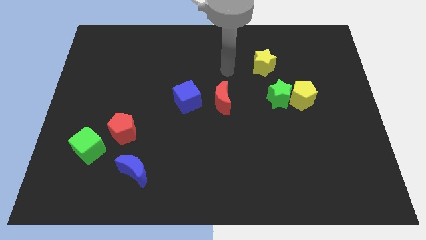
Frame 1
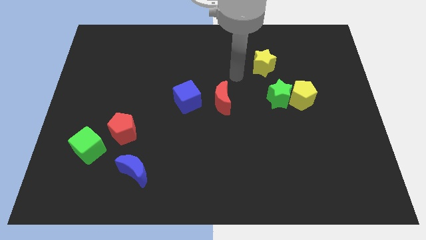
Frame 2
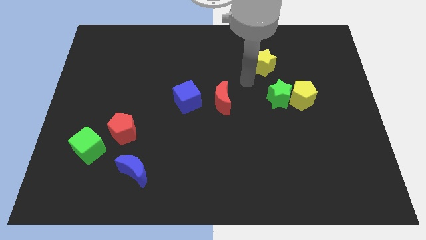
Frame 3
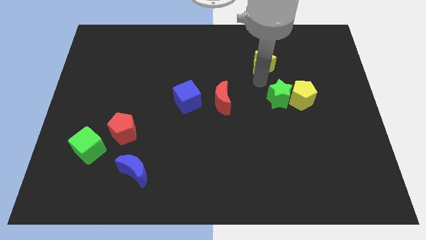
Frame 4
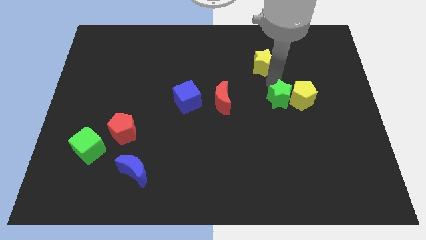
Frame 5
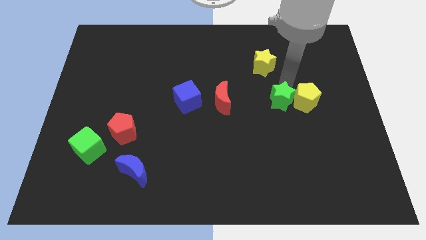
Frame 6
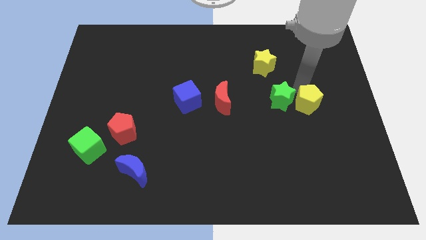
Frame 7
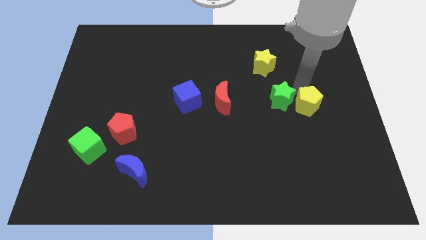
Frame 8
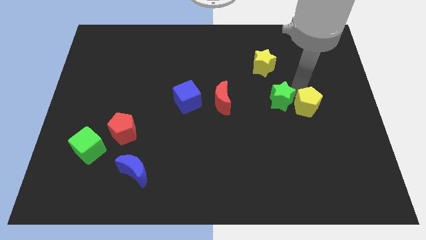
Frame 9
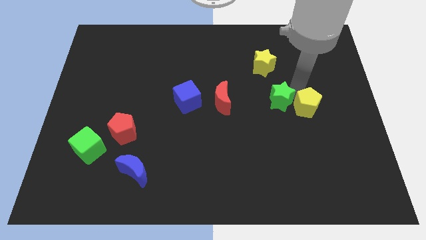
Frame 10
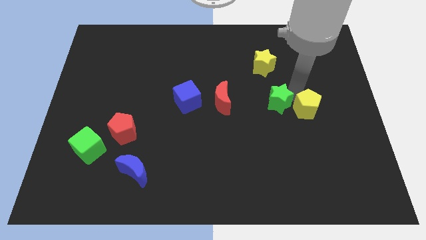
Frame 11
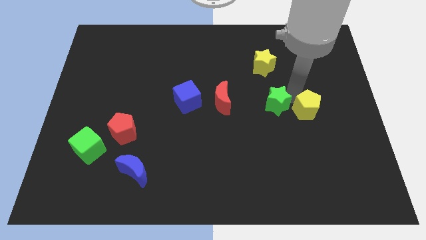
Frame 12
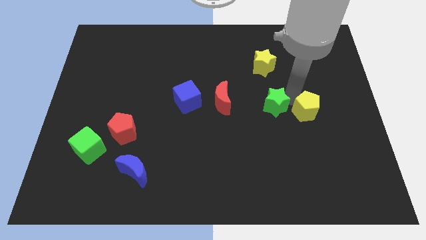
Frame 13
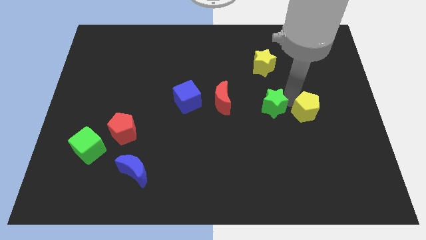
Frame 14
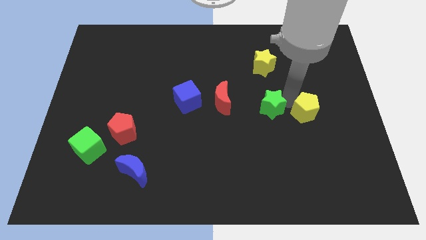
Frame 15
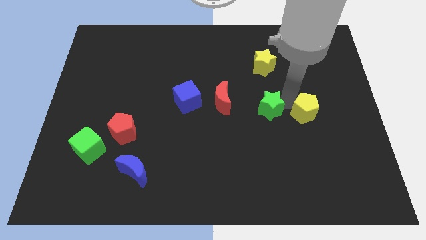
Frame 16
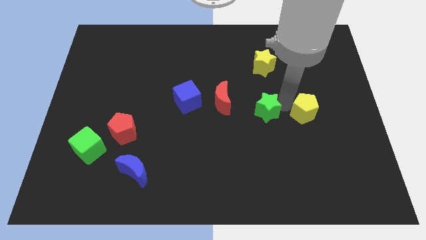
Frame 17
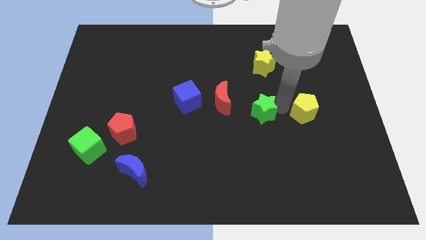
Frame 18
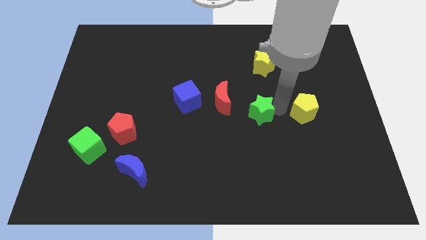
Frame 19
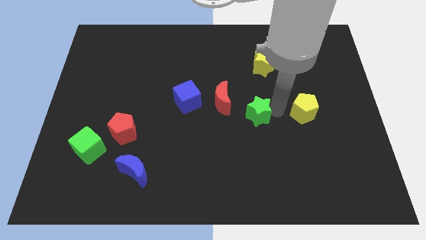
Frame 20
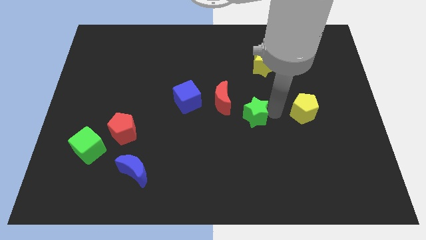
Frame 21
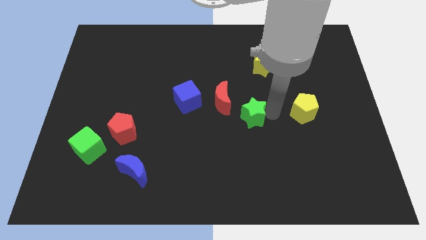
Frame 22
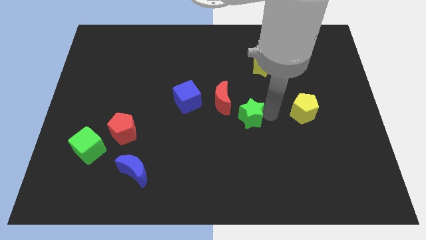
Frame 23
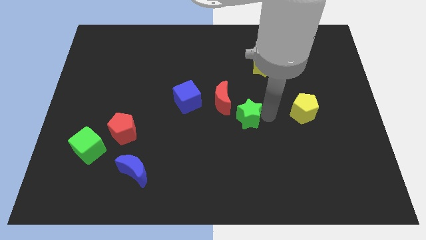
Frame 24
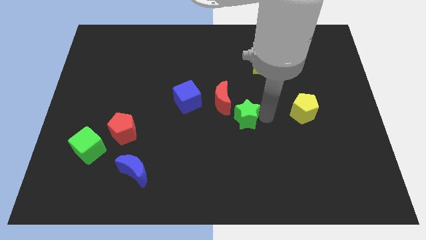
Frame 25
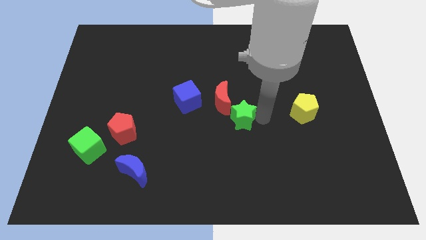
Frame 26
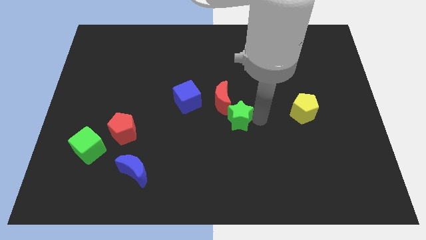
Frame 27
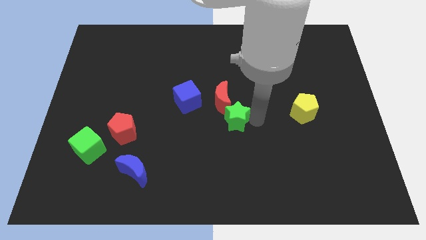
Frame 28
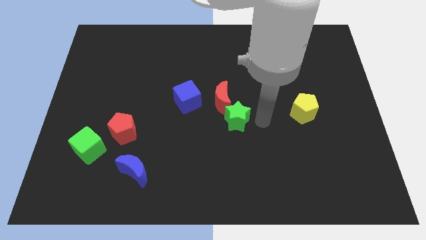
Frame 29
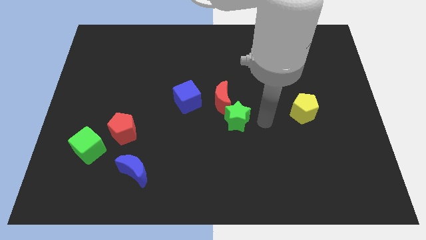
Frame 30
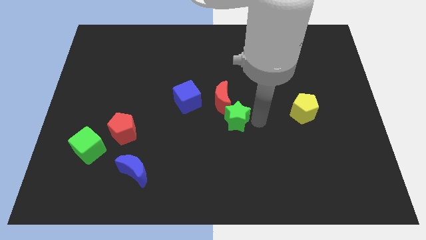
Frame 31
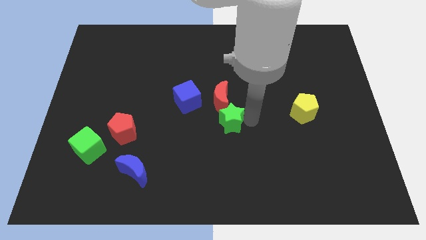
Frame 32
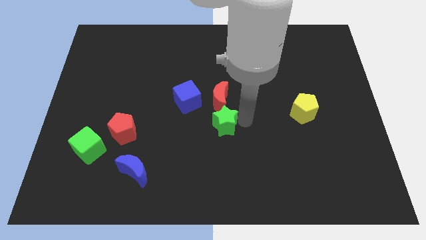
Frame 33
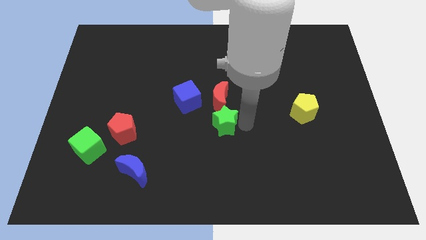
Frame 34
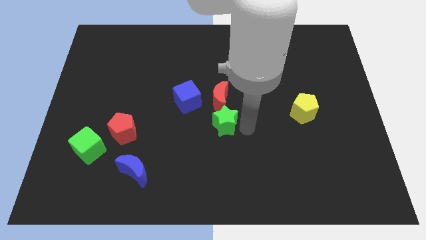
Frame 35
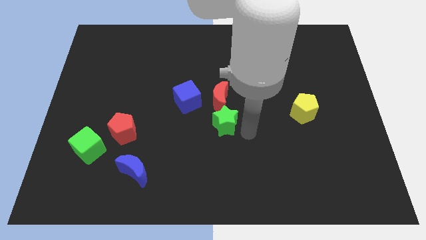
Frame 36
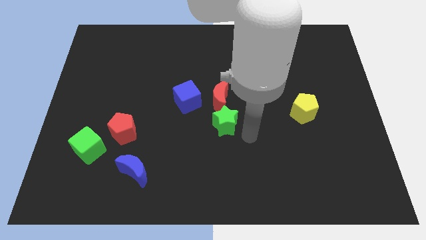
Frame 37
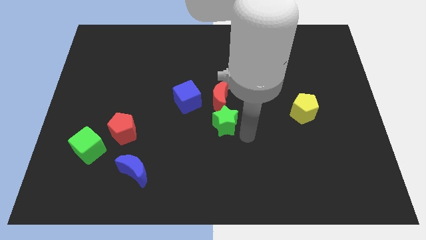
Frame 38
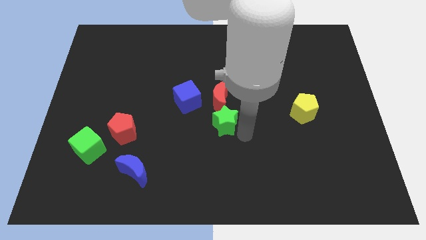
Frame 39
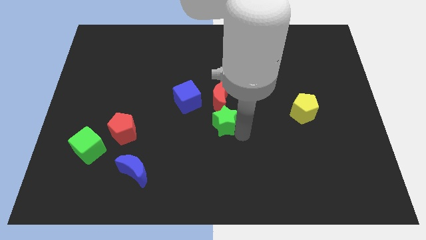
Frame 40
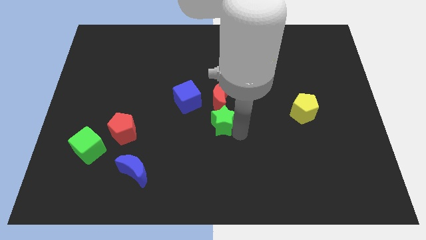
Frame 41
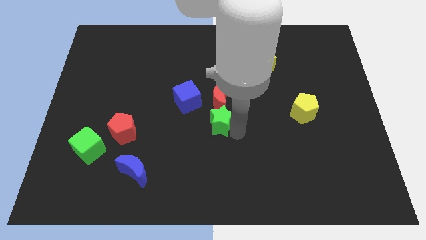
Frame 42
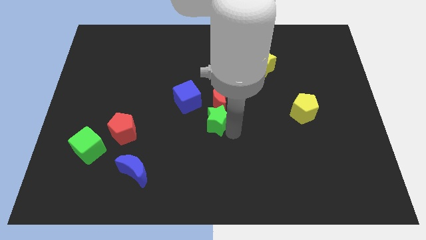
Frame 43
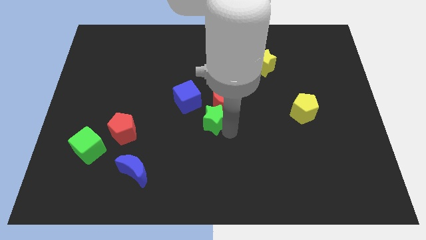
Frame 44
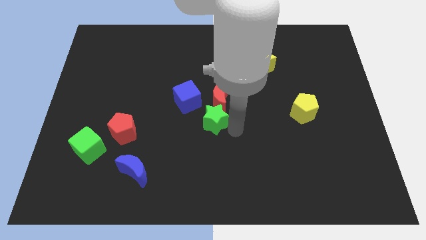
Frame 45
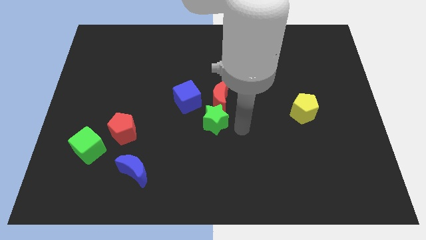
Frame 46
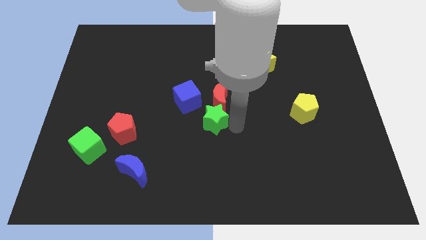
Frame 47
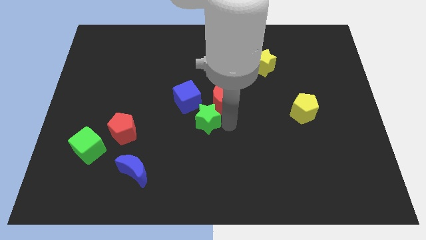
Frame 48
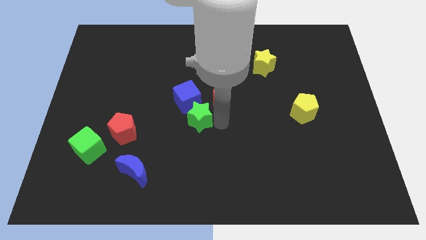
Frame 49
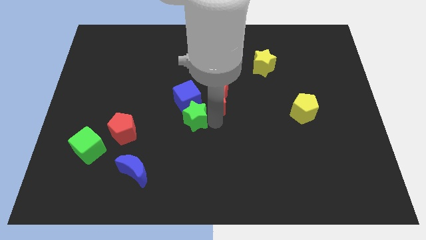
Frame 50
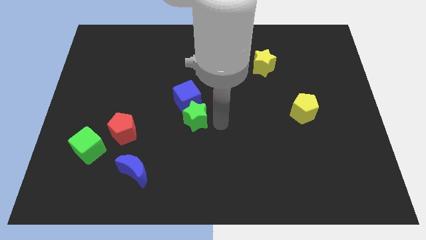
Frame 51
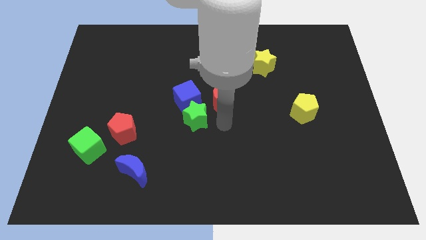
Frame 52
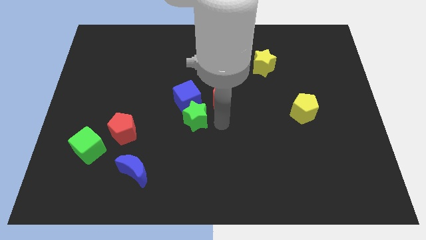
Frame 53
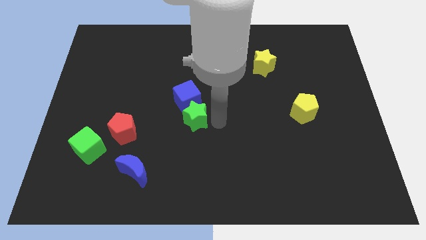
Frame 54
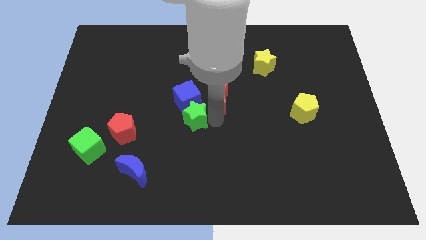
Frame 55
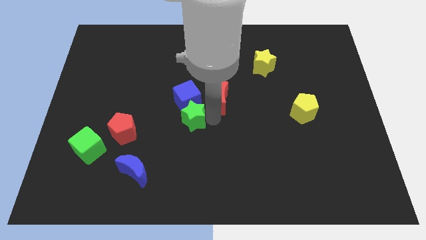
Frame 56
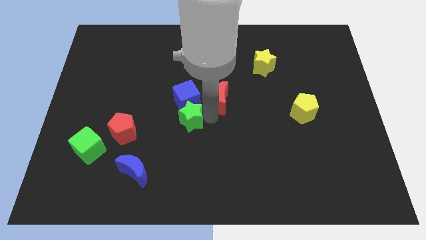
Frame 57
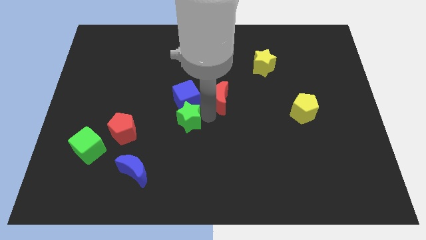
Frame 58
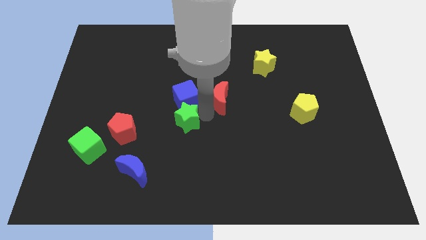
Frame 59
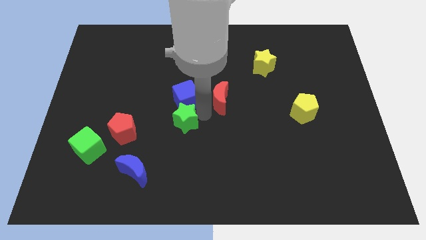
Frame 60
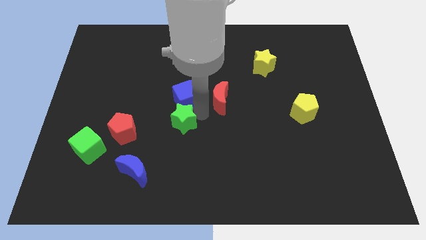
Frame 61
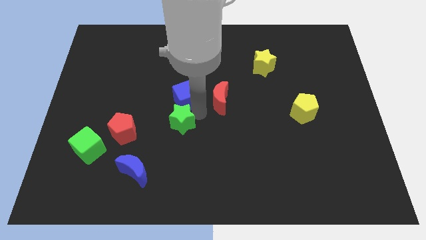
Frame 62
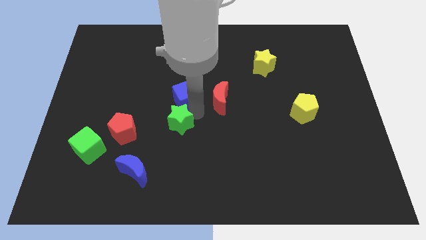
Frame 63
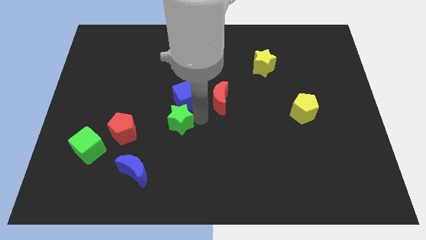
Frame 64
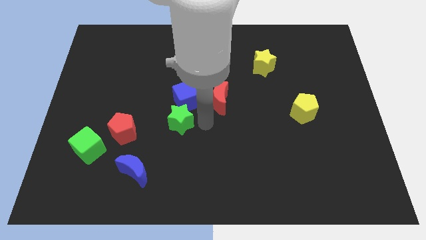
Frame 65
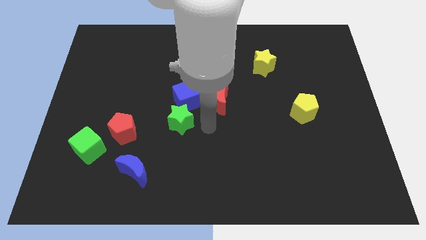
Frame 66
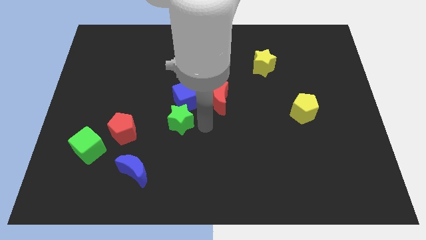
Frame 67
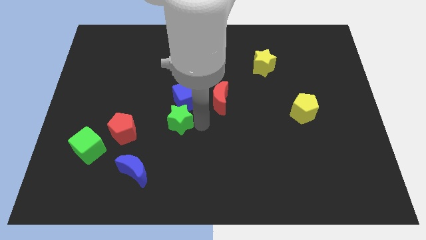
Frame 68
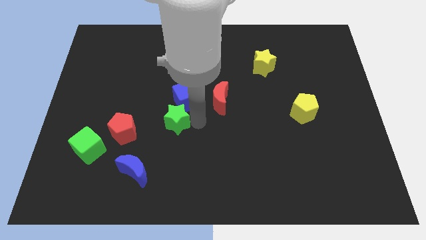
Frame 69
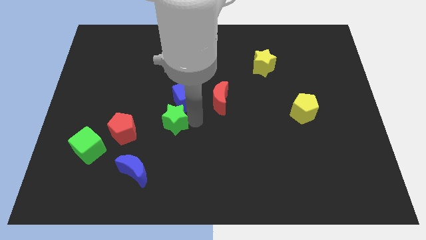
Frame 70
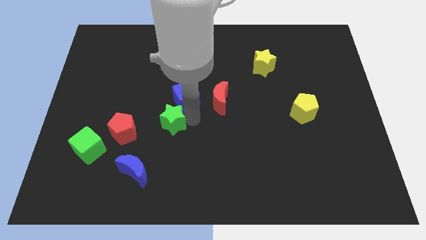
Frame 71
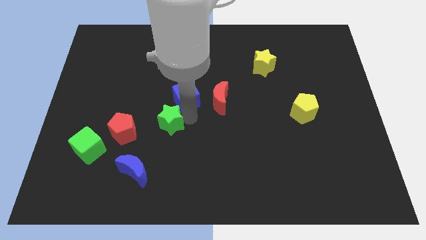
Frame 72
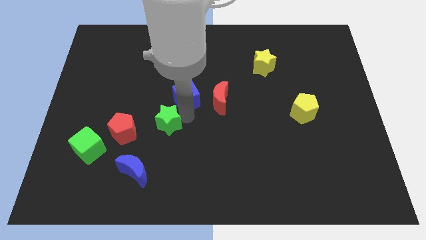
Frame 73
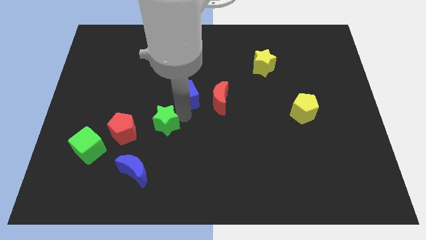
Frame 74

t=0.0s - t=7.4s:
slide the green star to the top right side of the red pentagon

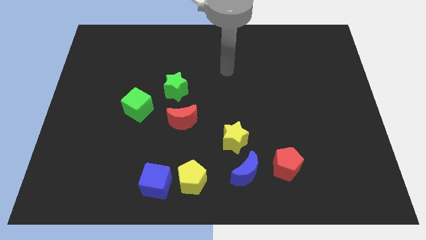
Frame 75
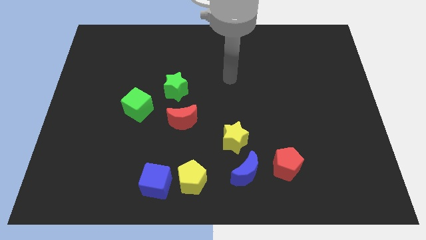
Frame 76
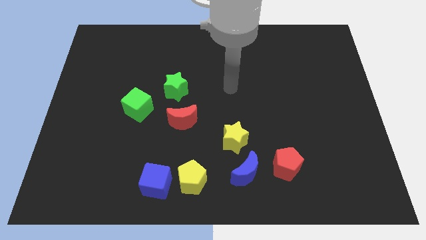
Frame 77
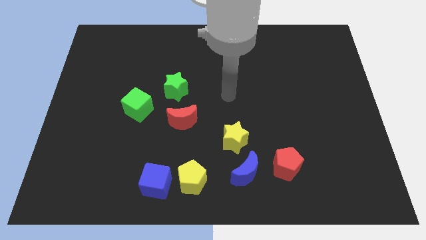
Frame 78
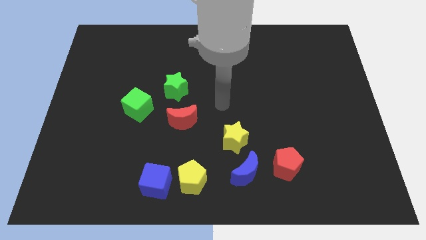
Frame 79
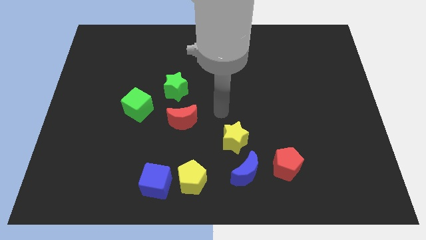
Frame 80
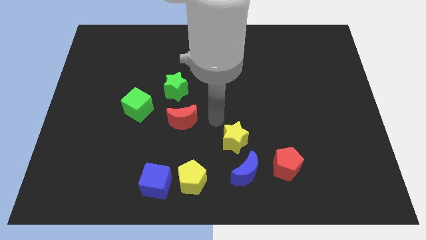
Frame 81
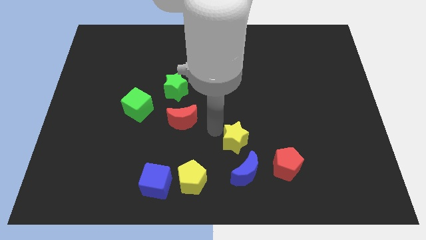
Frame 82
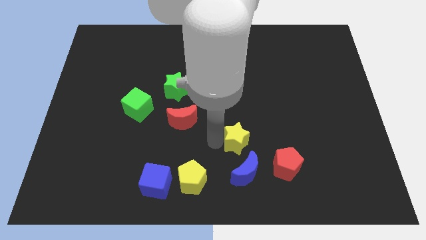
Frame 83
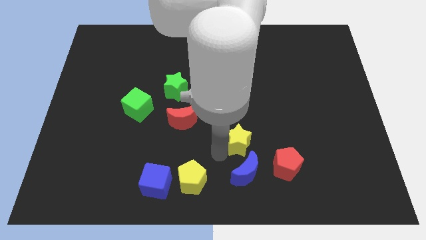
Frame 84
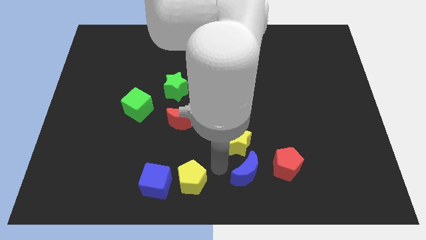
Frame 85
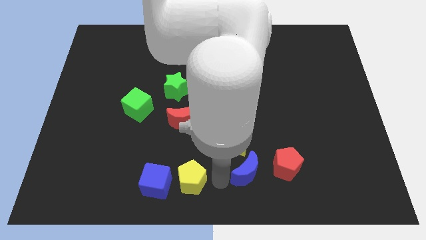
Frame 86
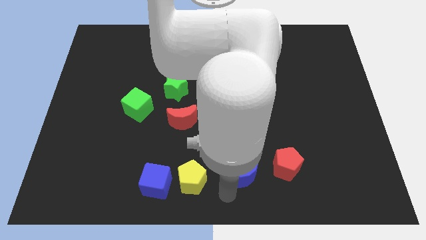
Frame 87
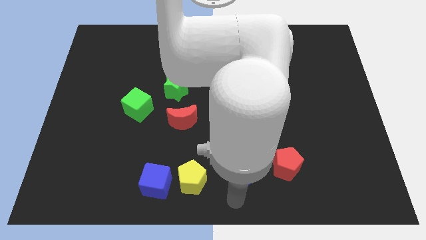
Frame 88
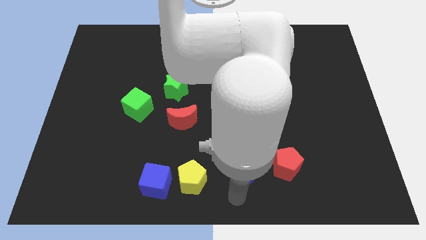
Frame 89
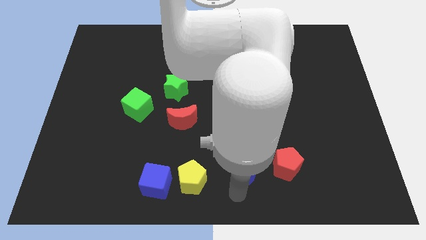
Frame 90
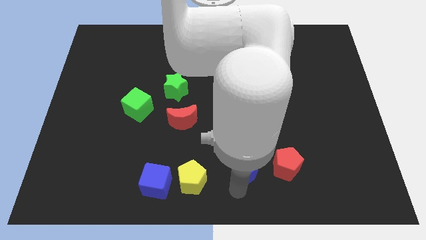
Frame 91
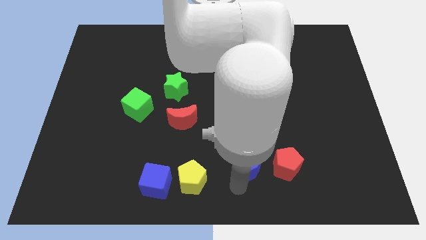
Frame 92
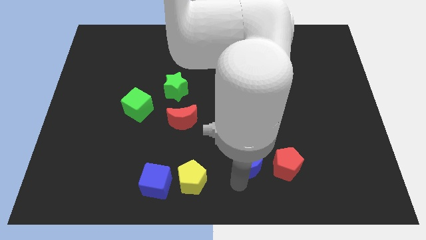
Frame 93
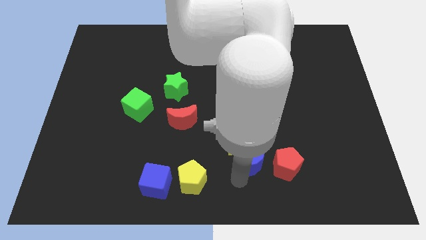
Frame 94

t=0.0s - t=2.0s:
move the blue moon to the top left of the red pentagon
